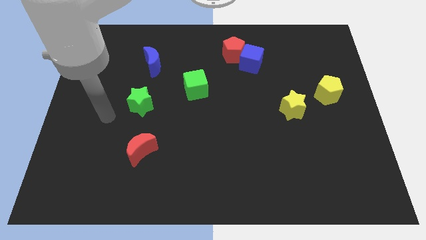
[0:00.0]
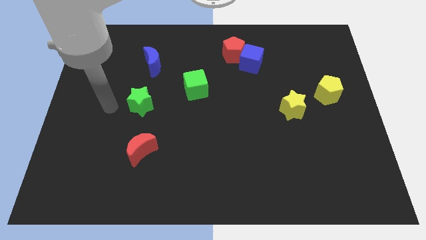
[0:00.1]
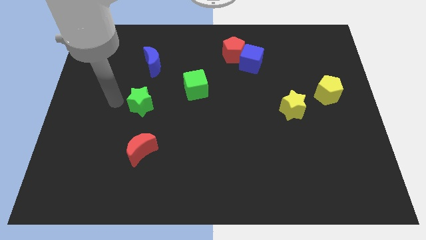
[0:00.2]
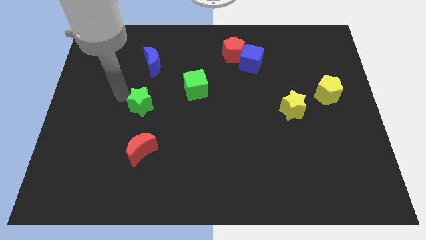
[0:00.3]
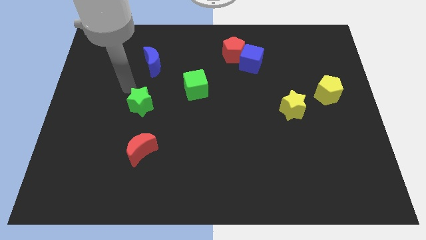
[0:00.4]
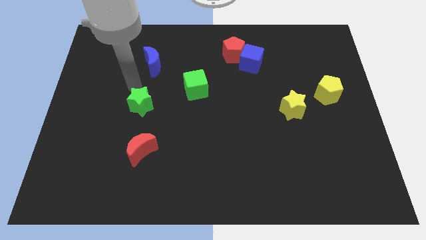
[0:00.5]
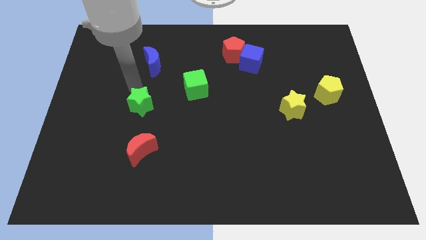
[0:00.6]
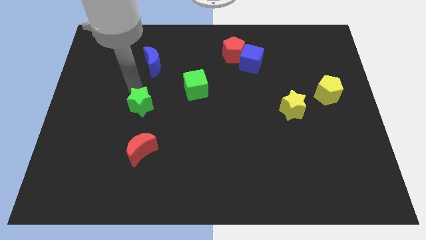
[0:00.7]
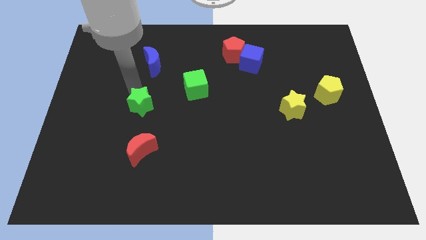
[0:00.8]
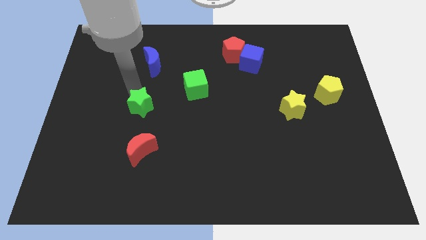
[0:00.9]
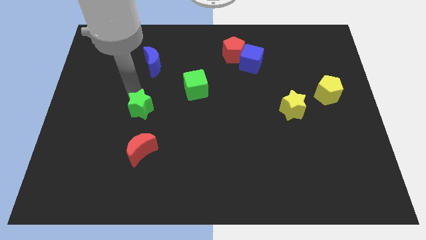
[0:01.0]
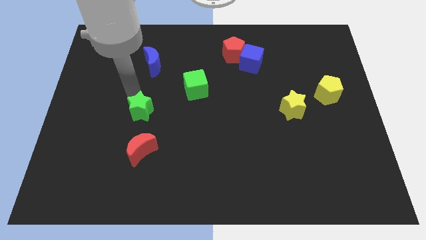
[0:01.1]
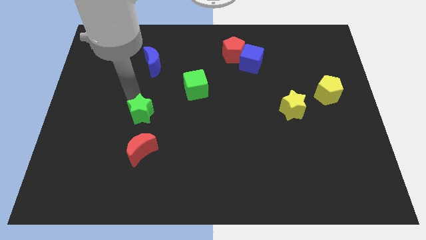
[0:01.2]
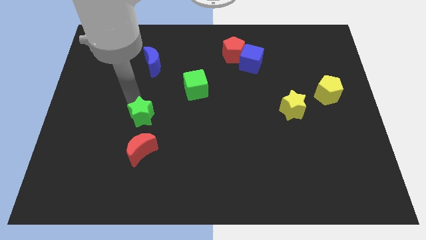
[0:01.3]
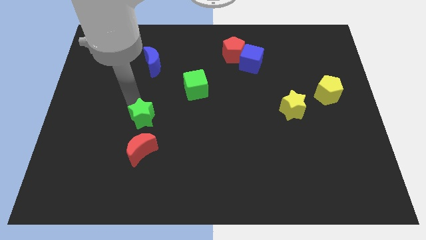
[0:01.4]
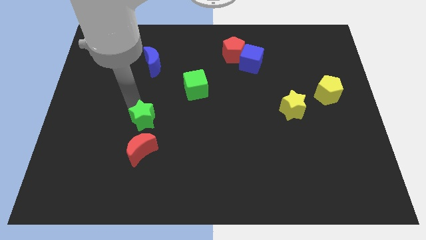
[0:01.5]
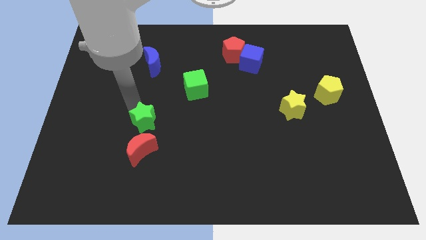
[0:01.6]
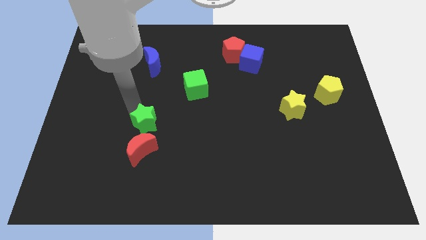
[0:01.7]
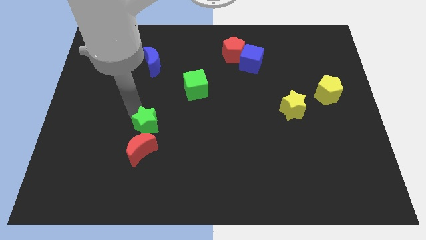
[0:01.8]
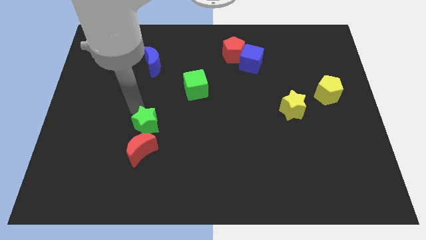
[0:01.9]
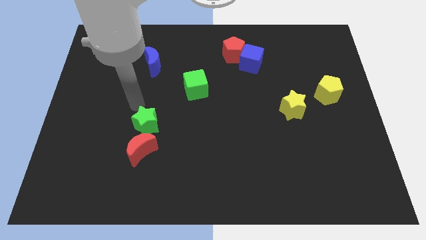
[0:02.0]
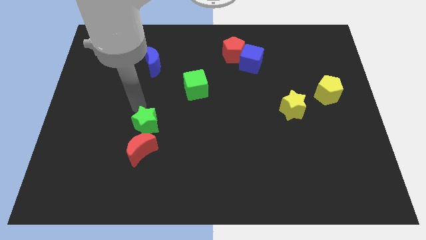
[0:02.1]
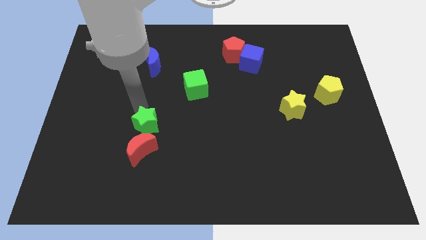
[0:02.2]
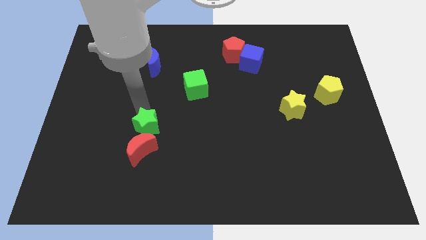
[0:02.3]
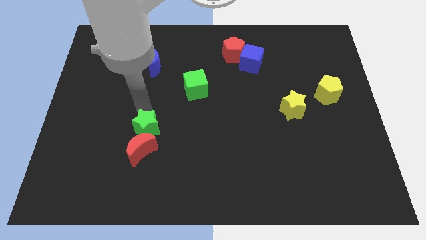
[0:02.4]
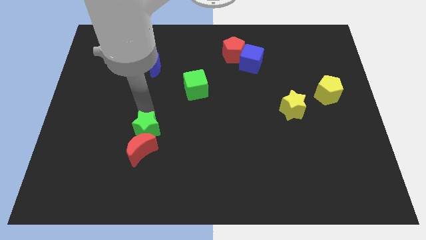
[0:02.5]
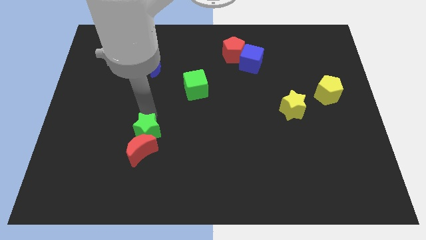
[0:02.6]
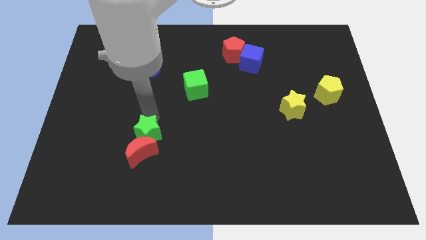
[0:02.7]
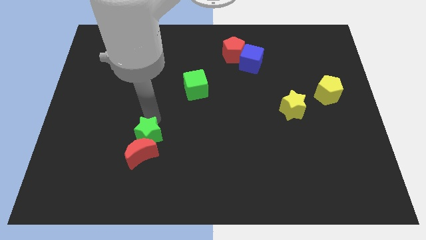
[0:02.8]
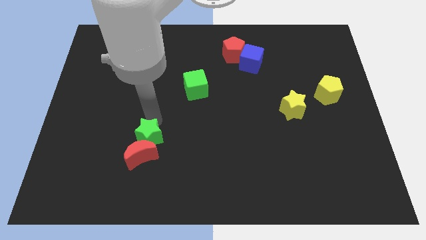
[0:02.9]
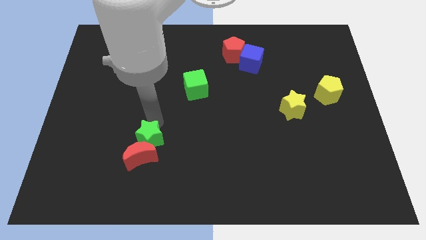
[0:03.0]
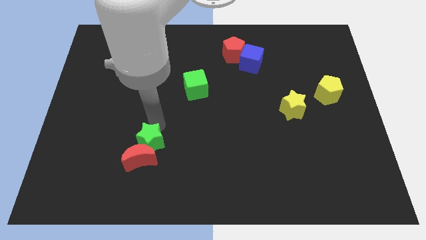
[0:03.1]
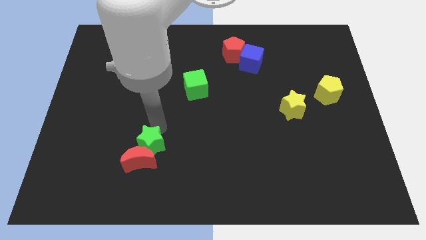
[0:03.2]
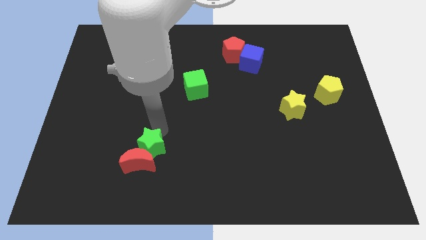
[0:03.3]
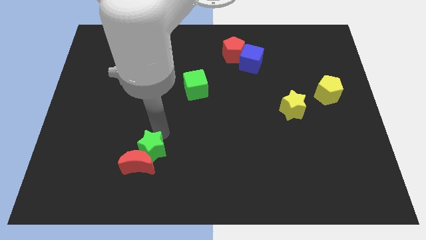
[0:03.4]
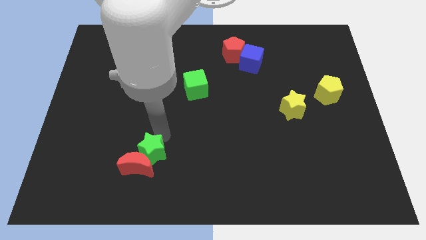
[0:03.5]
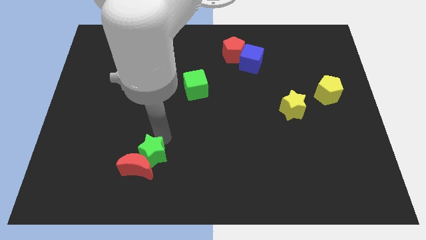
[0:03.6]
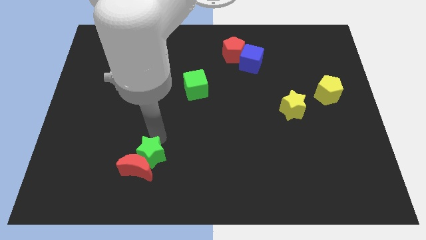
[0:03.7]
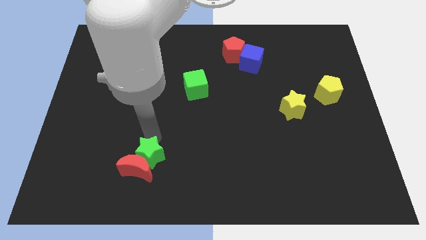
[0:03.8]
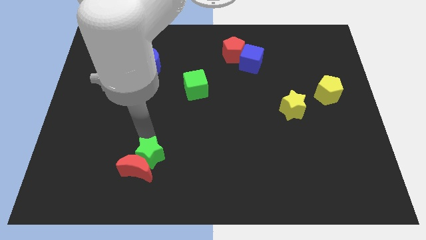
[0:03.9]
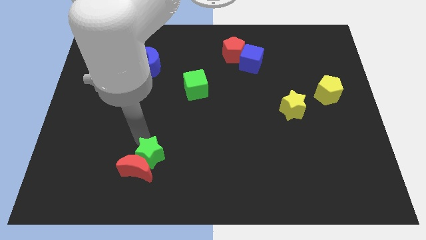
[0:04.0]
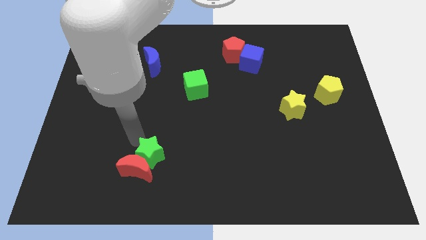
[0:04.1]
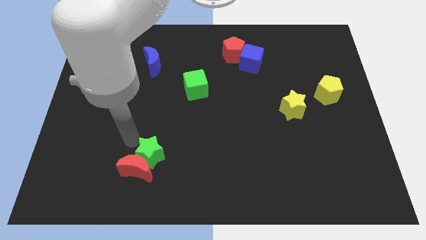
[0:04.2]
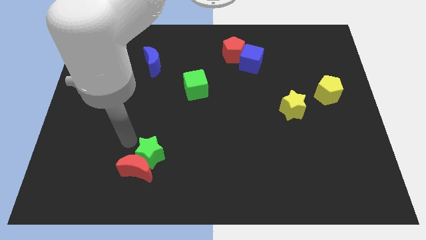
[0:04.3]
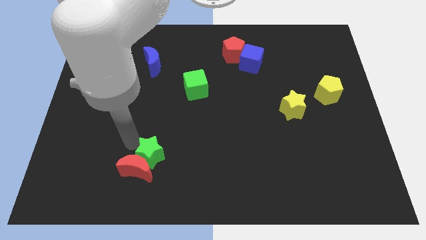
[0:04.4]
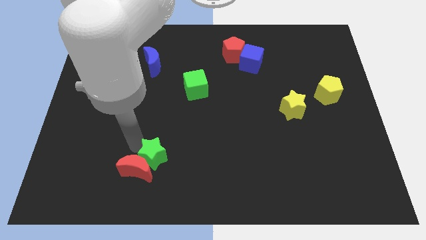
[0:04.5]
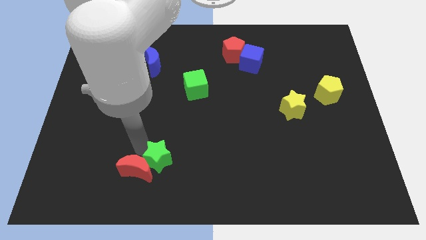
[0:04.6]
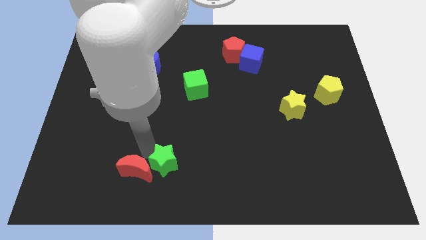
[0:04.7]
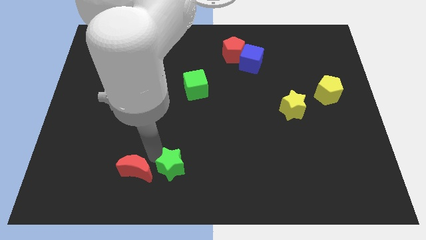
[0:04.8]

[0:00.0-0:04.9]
push the green star to the bottom side

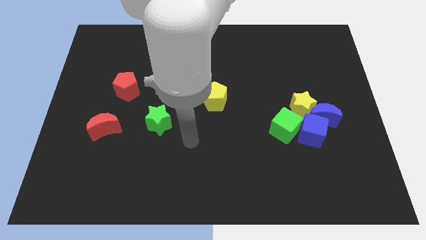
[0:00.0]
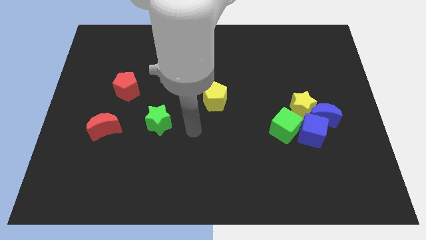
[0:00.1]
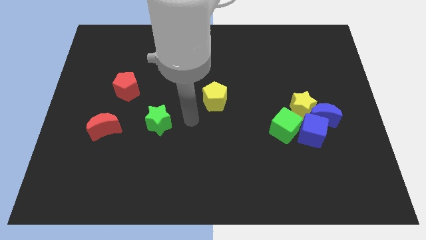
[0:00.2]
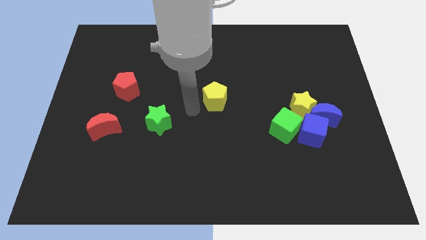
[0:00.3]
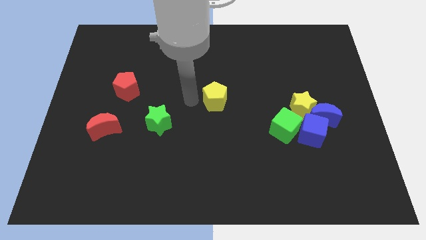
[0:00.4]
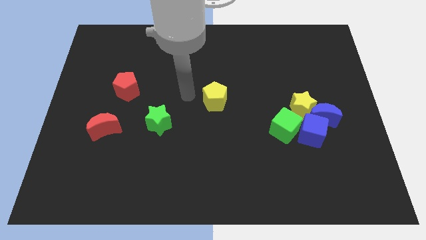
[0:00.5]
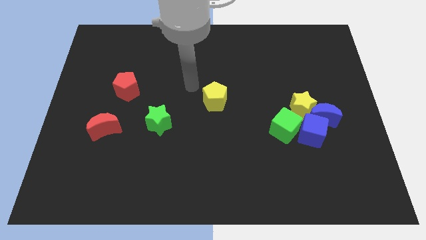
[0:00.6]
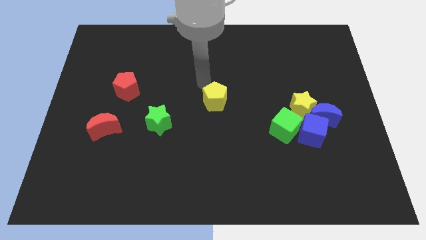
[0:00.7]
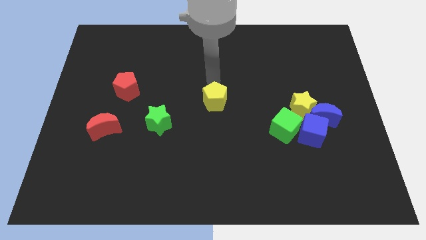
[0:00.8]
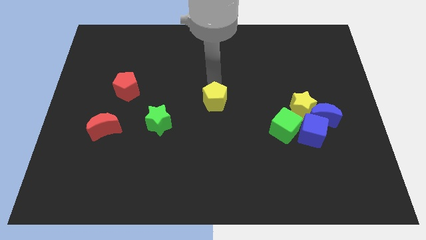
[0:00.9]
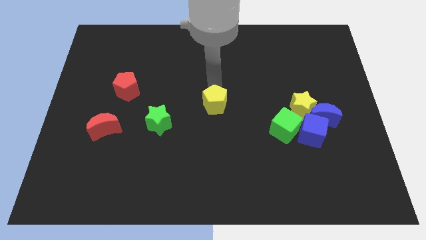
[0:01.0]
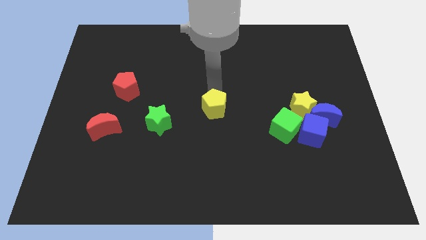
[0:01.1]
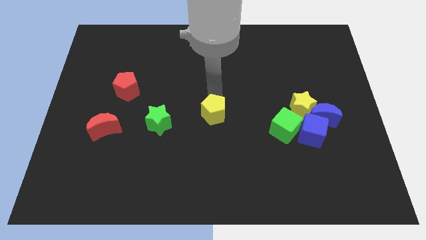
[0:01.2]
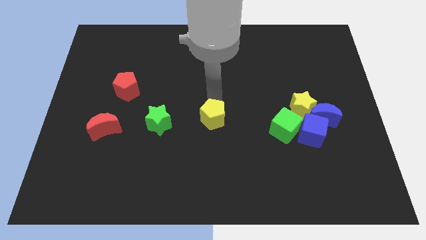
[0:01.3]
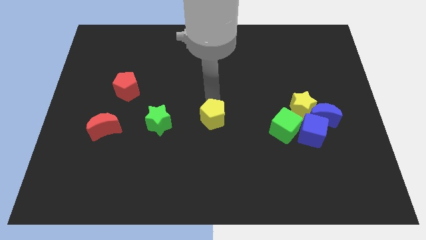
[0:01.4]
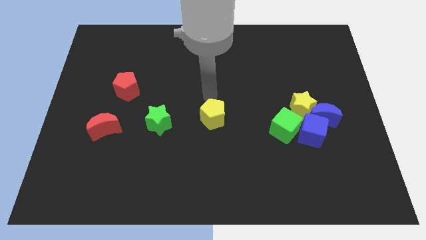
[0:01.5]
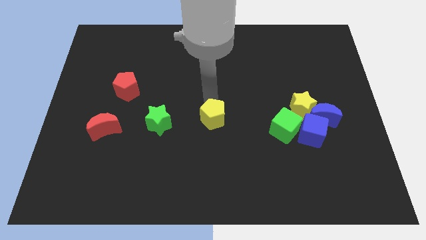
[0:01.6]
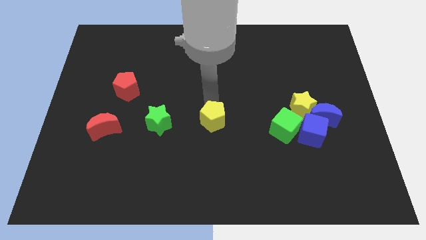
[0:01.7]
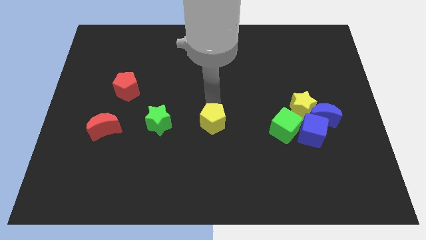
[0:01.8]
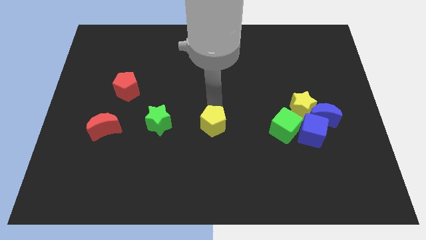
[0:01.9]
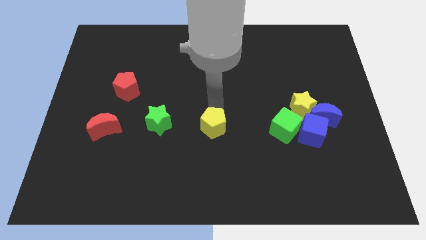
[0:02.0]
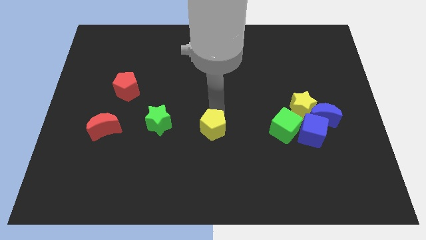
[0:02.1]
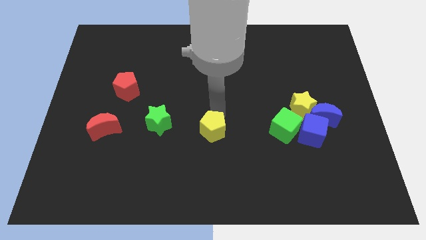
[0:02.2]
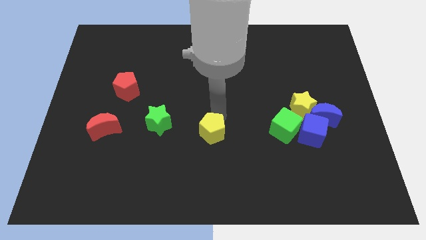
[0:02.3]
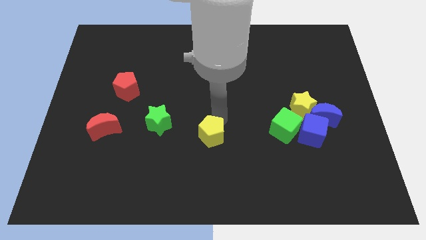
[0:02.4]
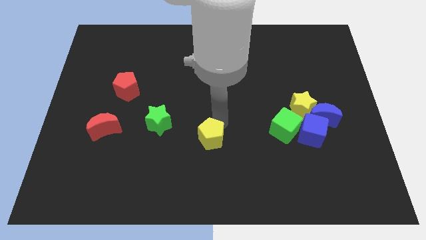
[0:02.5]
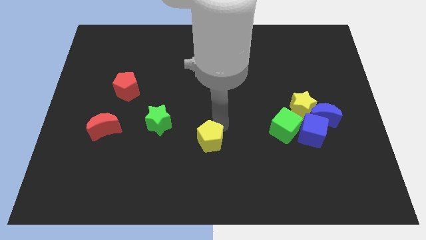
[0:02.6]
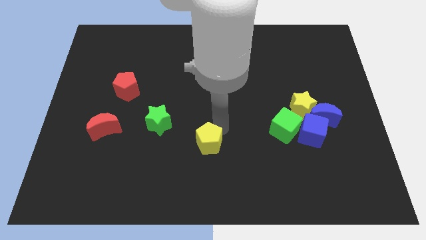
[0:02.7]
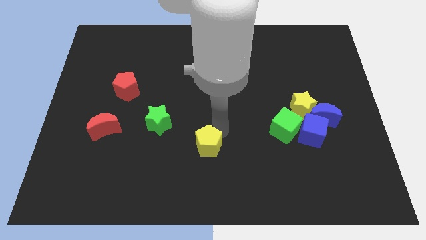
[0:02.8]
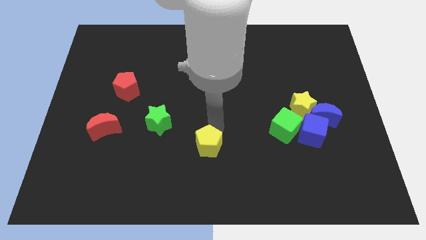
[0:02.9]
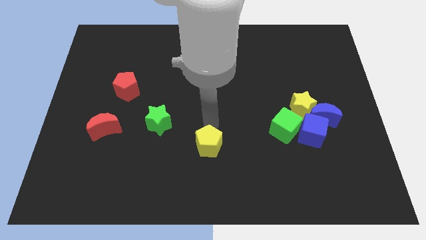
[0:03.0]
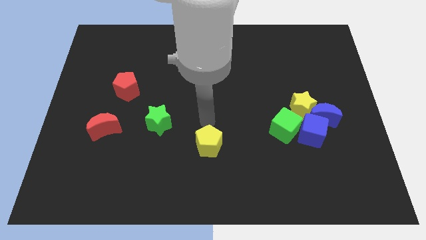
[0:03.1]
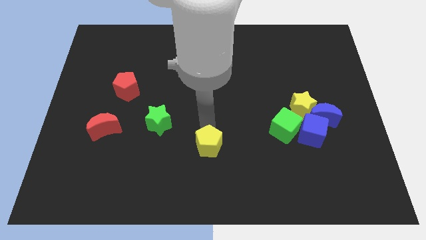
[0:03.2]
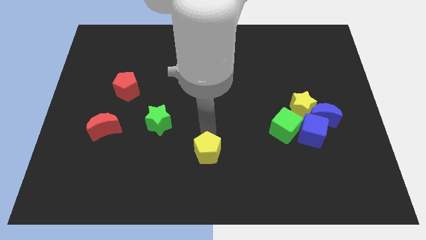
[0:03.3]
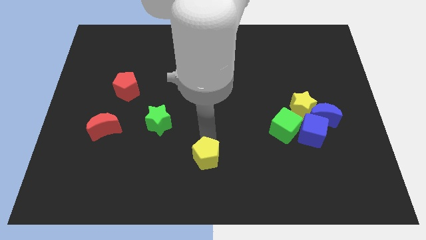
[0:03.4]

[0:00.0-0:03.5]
move the yellow pentagon to the bottom side
